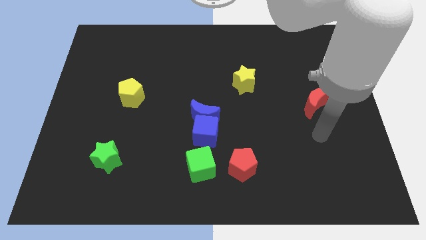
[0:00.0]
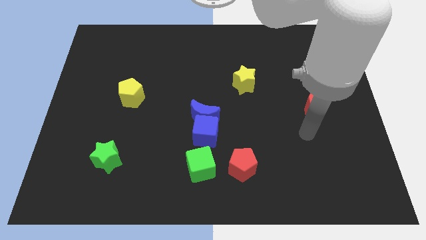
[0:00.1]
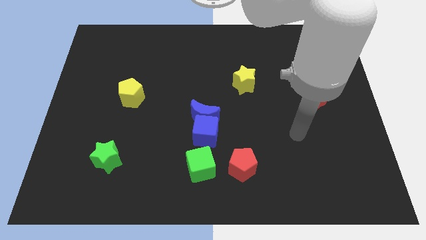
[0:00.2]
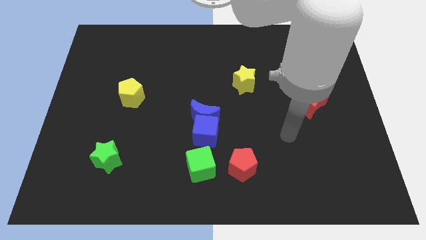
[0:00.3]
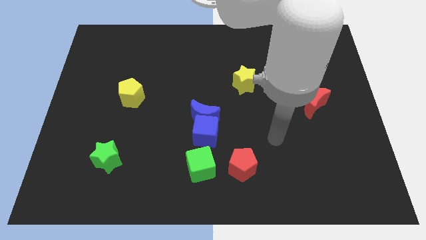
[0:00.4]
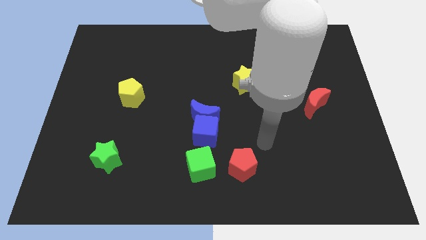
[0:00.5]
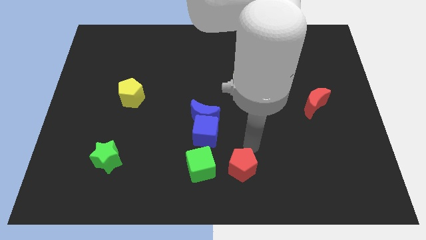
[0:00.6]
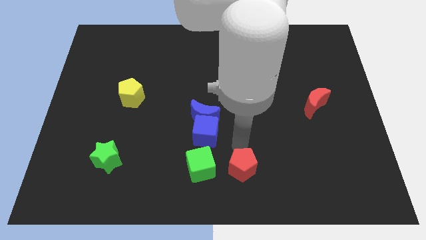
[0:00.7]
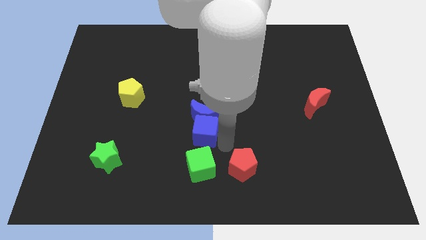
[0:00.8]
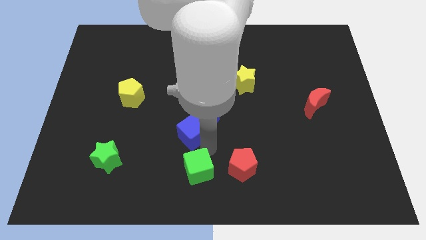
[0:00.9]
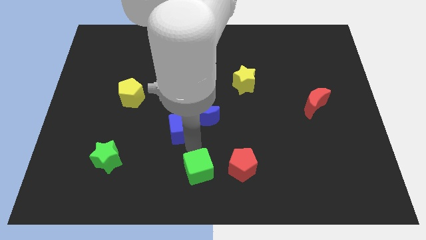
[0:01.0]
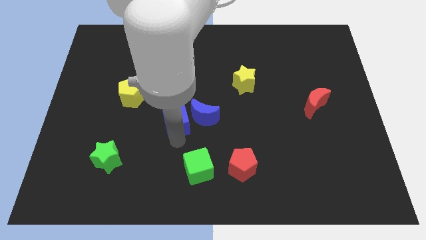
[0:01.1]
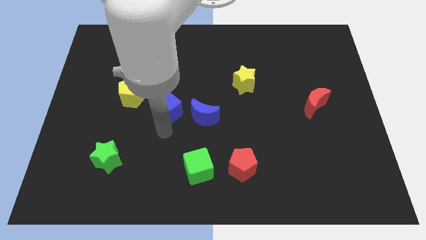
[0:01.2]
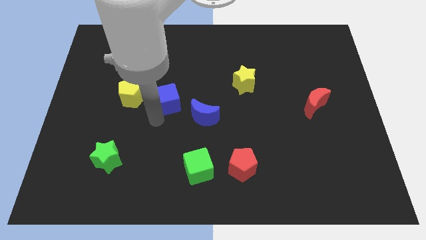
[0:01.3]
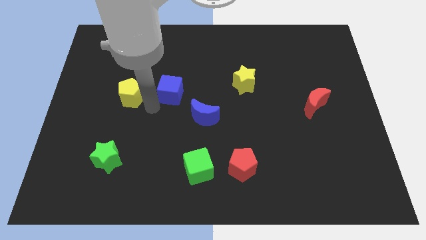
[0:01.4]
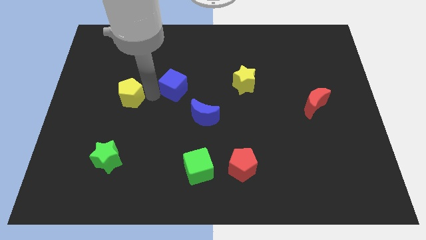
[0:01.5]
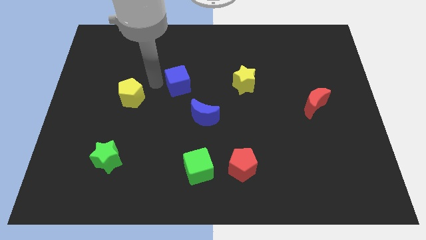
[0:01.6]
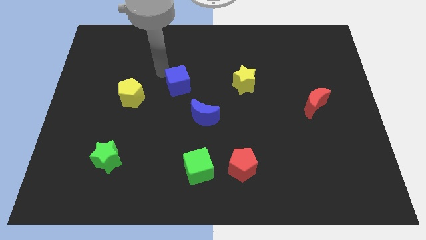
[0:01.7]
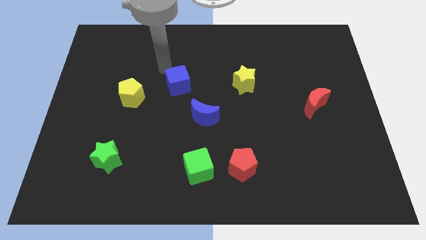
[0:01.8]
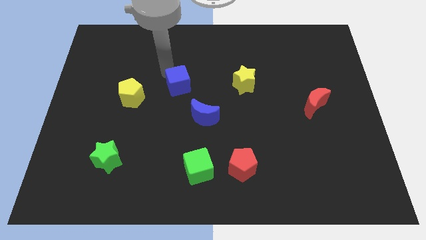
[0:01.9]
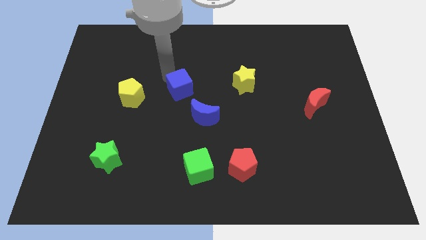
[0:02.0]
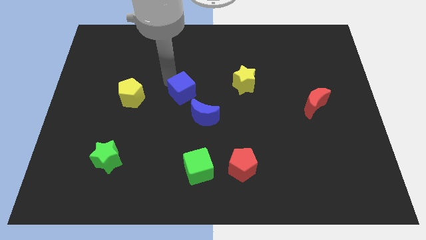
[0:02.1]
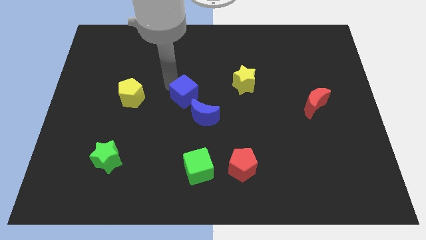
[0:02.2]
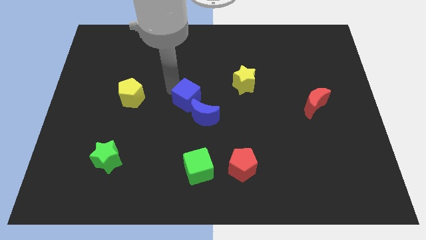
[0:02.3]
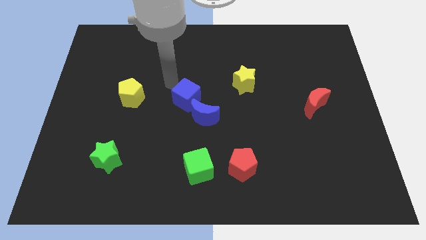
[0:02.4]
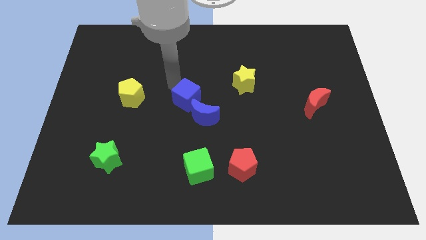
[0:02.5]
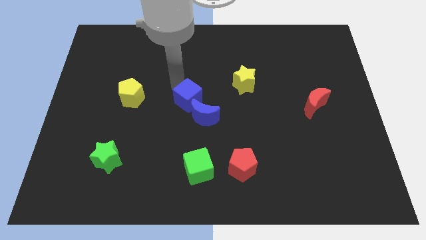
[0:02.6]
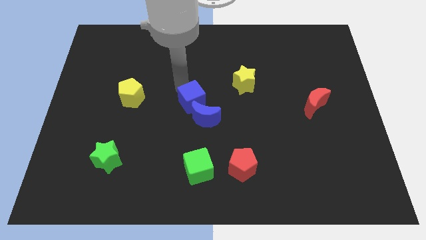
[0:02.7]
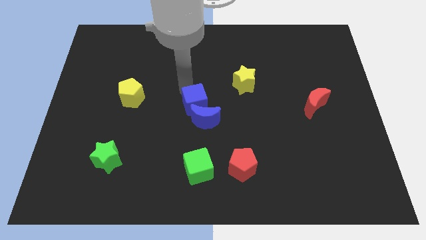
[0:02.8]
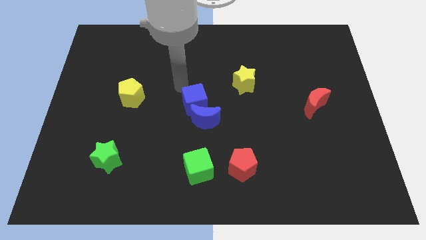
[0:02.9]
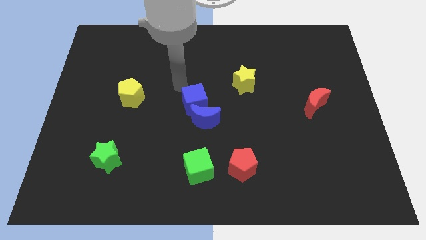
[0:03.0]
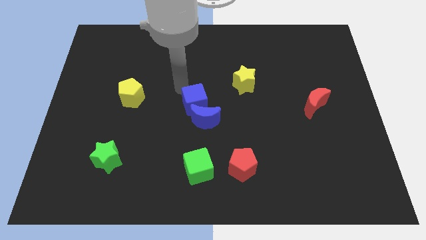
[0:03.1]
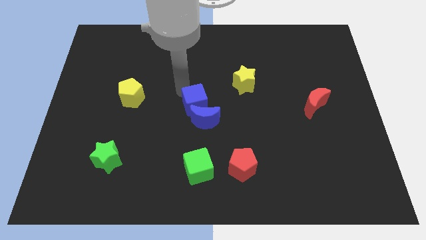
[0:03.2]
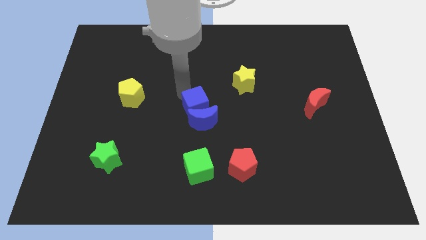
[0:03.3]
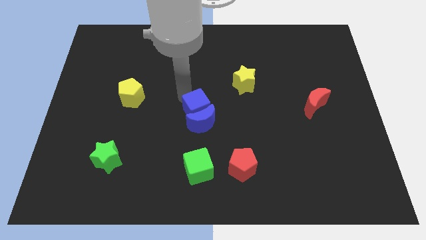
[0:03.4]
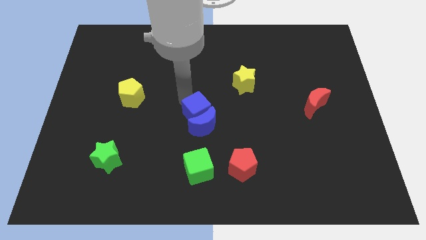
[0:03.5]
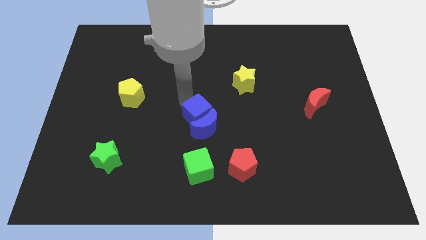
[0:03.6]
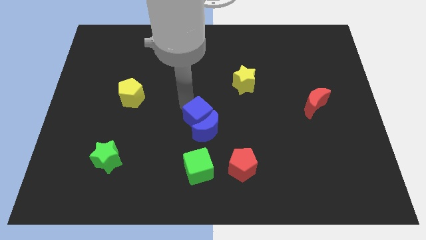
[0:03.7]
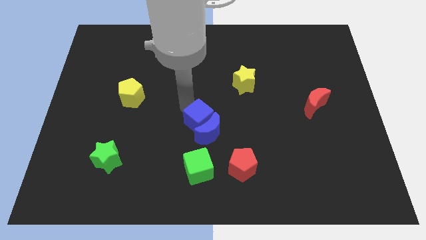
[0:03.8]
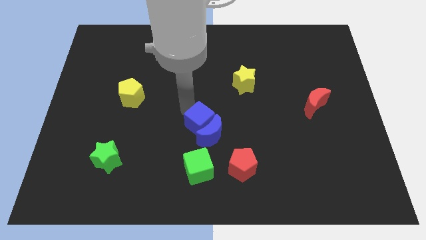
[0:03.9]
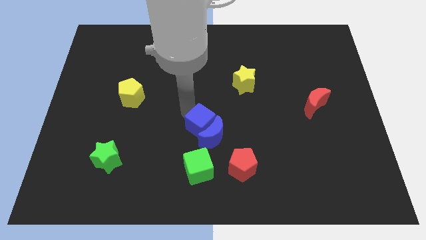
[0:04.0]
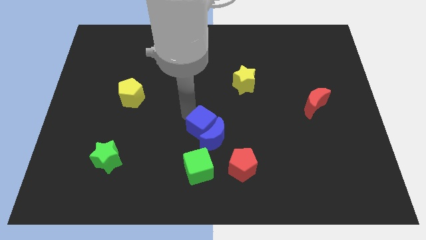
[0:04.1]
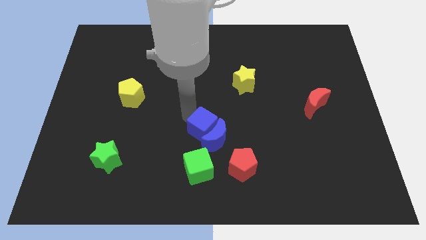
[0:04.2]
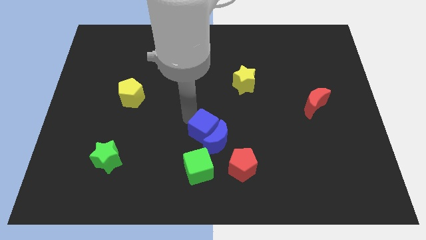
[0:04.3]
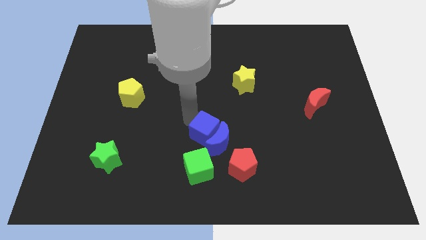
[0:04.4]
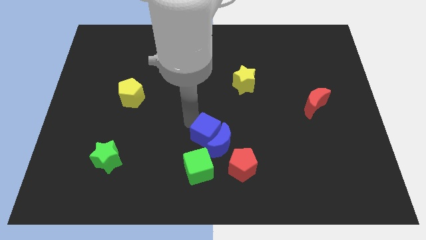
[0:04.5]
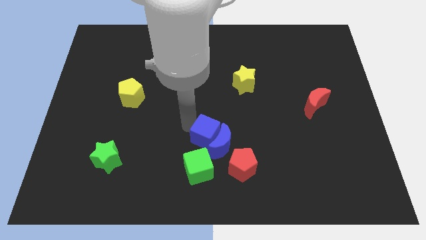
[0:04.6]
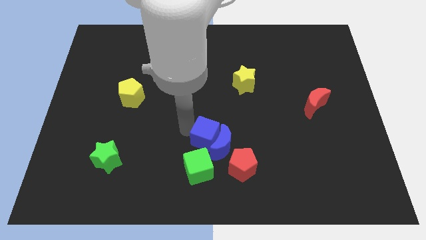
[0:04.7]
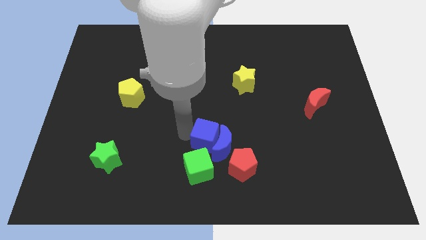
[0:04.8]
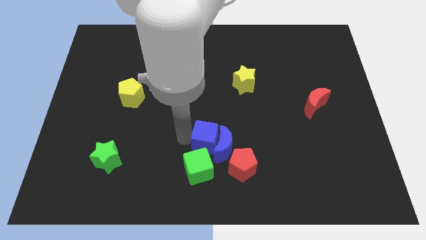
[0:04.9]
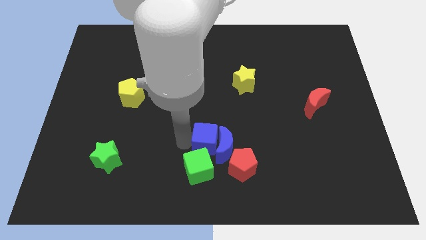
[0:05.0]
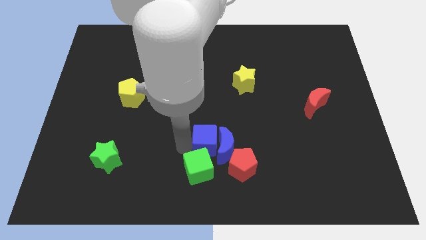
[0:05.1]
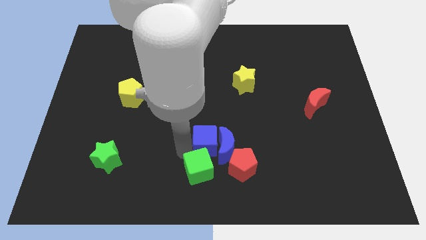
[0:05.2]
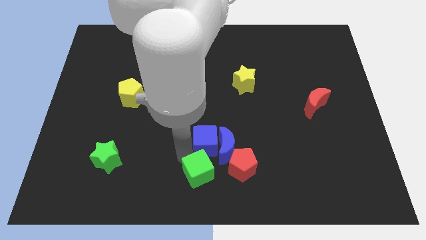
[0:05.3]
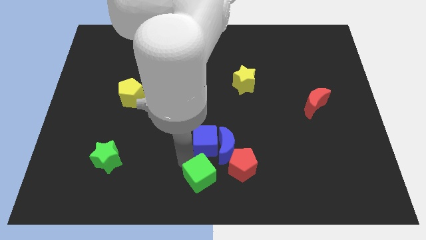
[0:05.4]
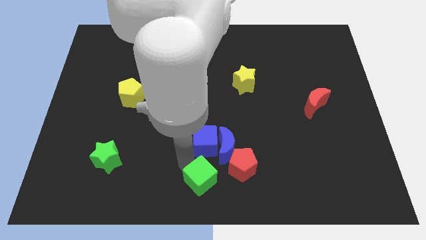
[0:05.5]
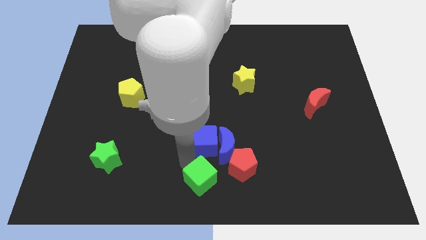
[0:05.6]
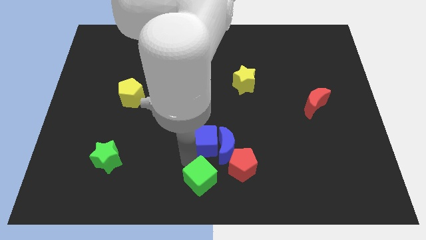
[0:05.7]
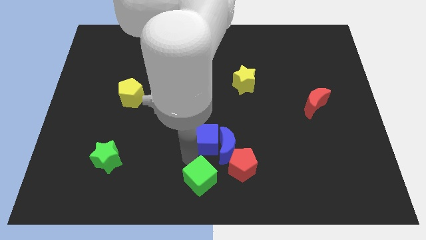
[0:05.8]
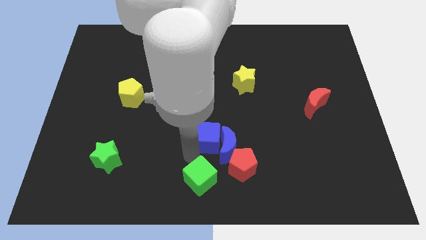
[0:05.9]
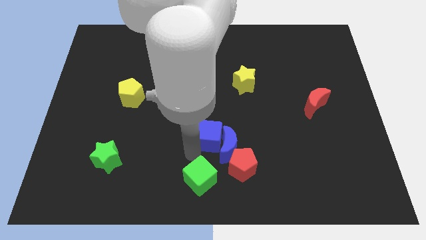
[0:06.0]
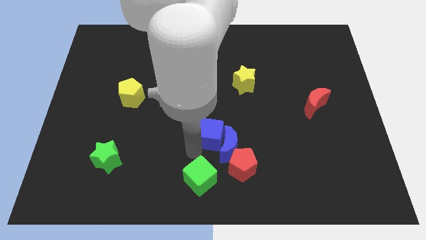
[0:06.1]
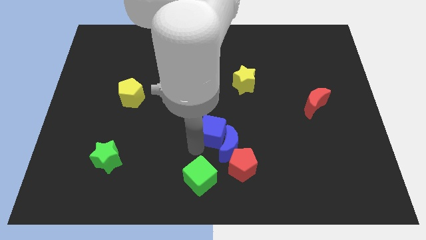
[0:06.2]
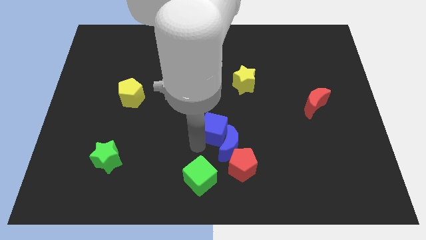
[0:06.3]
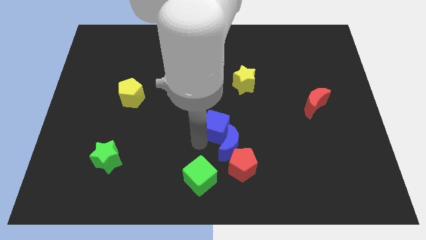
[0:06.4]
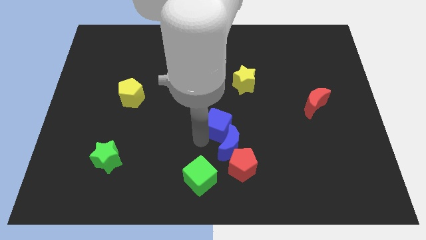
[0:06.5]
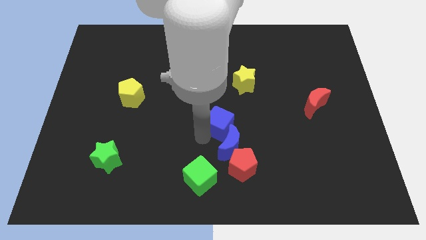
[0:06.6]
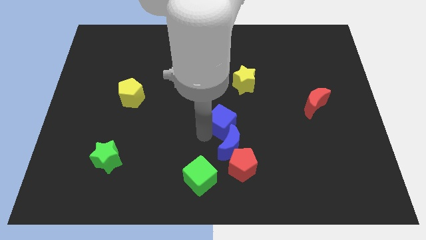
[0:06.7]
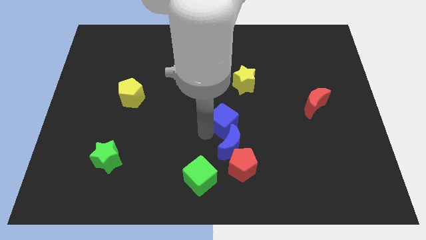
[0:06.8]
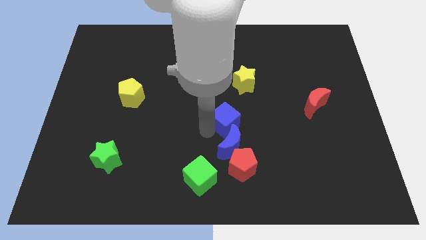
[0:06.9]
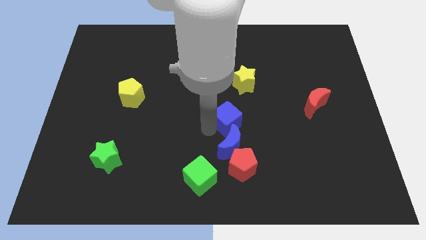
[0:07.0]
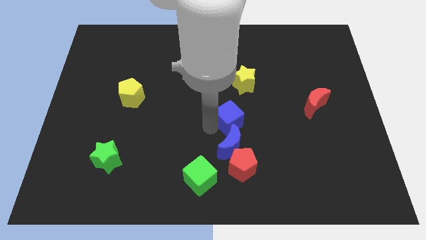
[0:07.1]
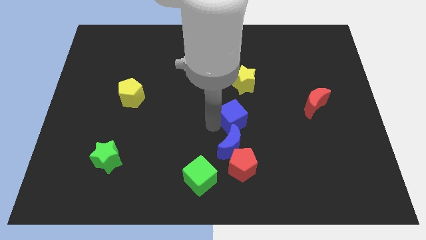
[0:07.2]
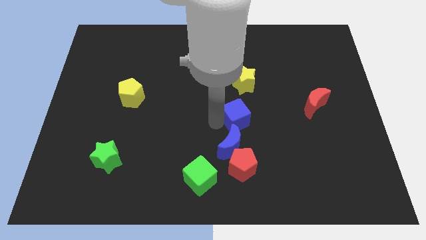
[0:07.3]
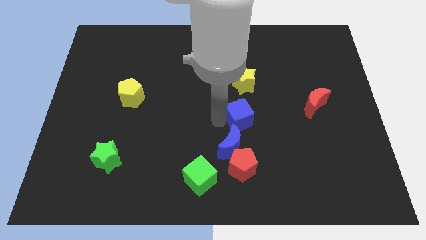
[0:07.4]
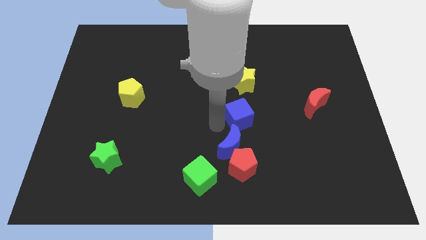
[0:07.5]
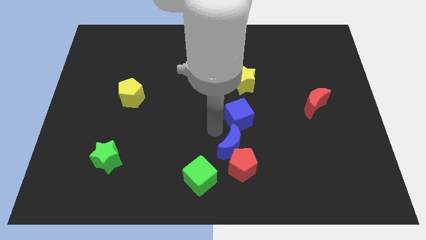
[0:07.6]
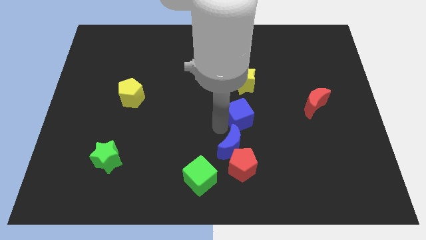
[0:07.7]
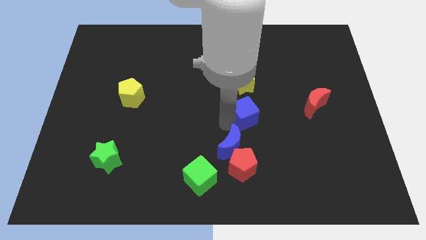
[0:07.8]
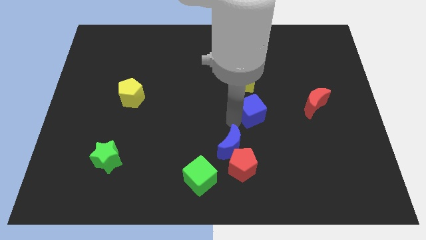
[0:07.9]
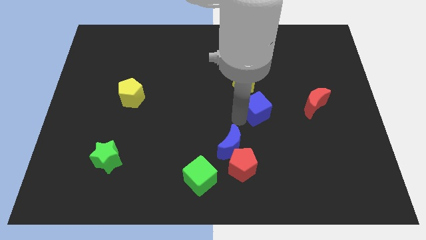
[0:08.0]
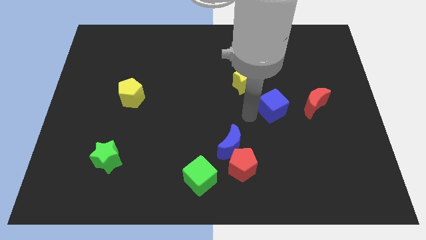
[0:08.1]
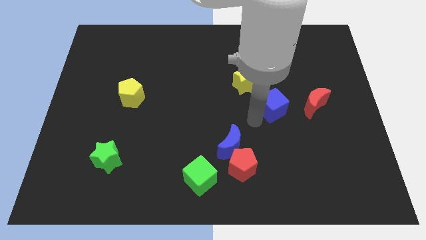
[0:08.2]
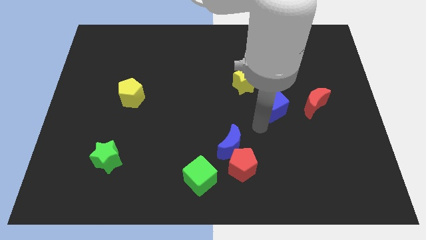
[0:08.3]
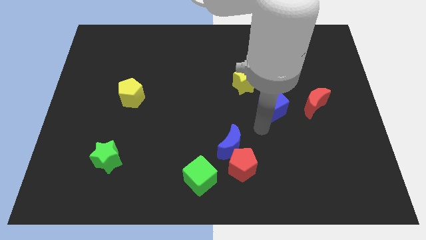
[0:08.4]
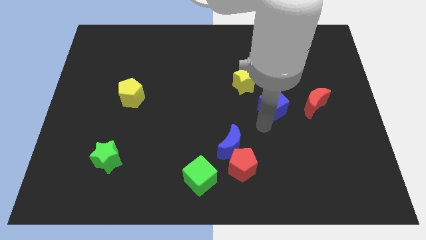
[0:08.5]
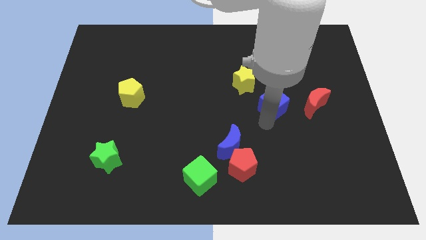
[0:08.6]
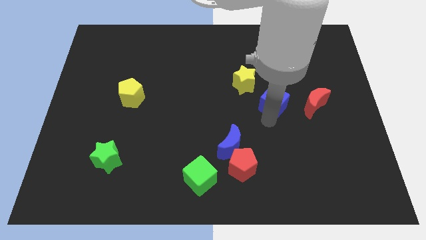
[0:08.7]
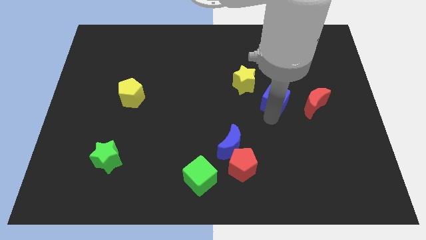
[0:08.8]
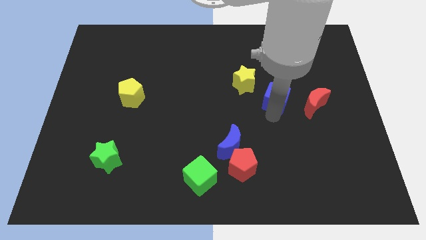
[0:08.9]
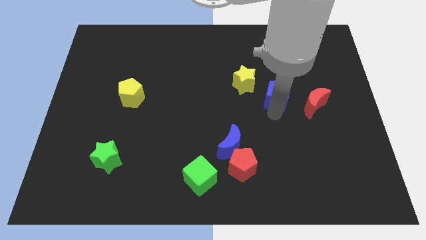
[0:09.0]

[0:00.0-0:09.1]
push the blue cube just right of the yellow star
